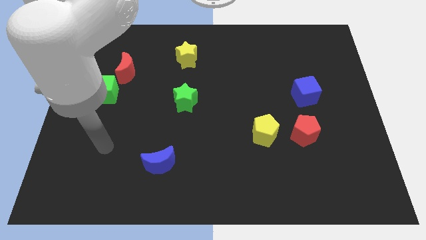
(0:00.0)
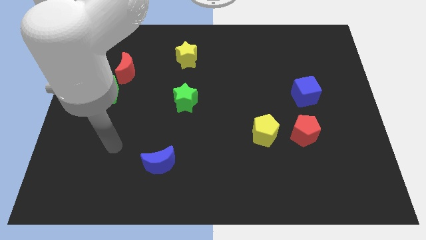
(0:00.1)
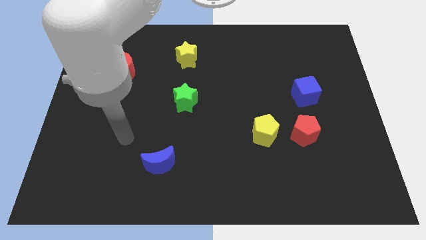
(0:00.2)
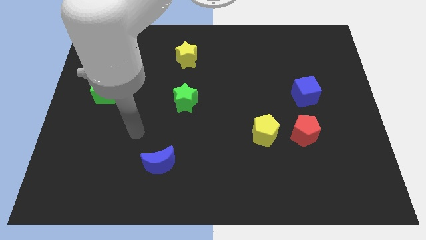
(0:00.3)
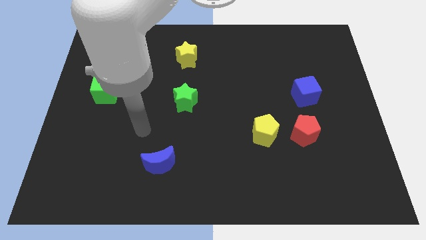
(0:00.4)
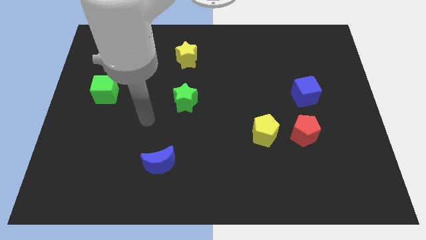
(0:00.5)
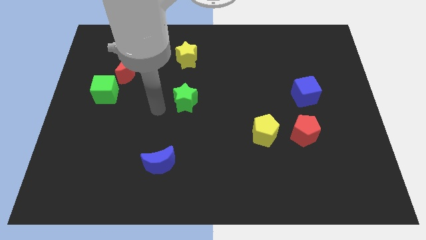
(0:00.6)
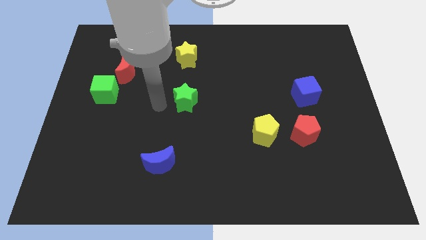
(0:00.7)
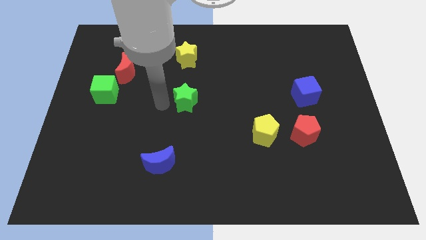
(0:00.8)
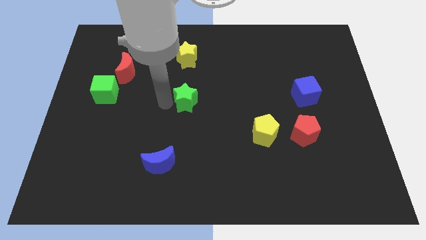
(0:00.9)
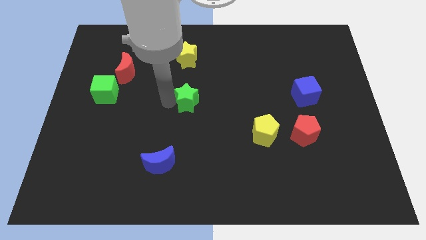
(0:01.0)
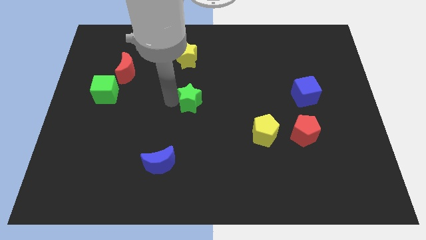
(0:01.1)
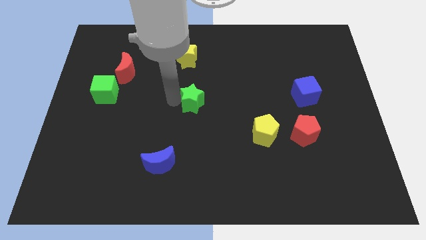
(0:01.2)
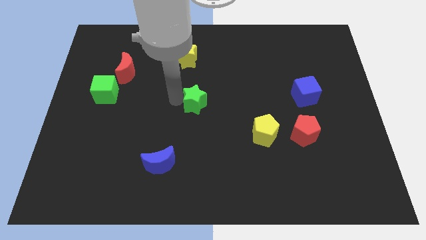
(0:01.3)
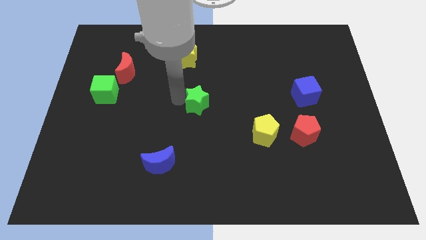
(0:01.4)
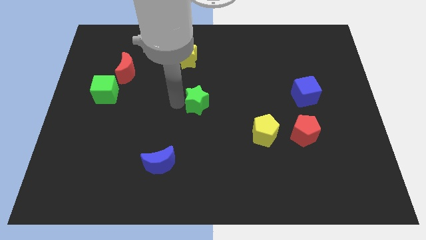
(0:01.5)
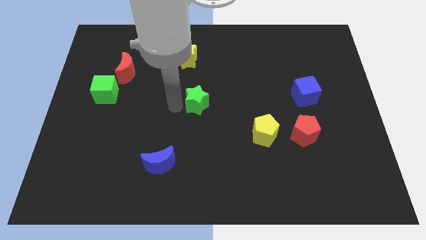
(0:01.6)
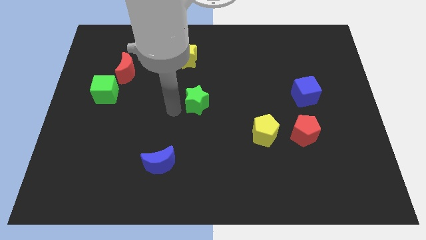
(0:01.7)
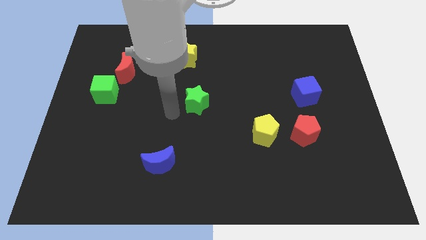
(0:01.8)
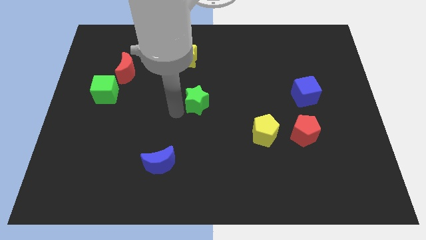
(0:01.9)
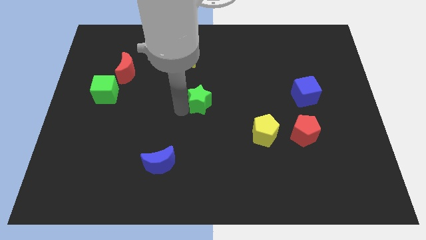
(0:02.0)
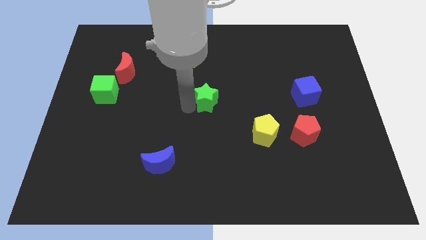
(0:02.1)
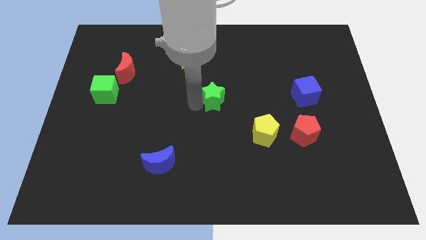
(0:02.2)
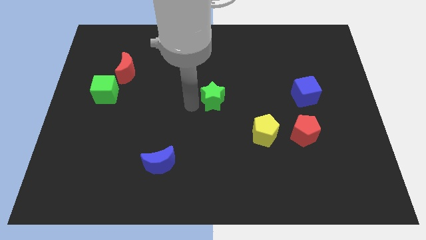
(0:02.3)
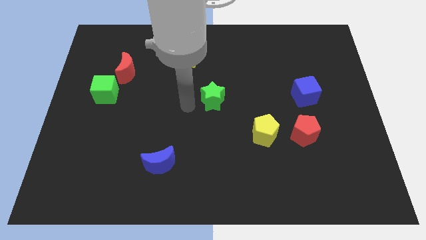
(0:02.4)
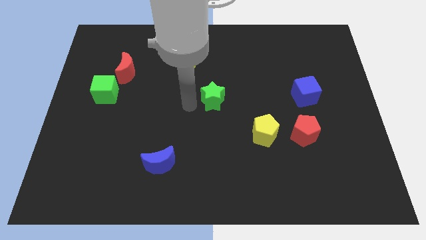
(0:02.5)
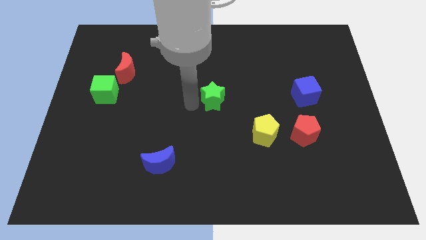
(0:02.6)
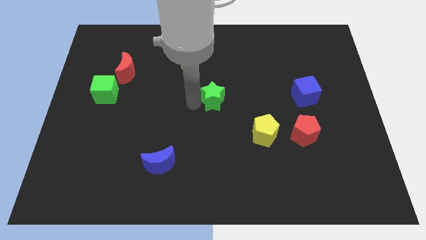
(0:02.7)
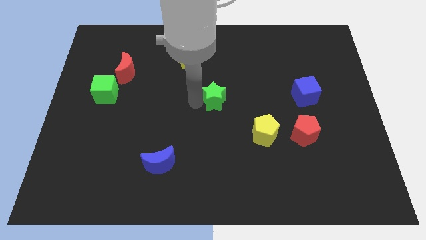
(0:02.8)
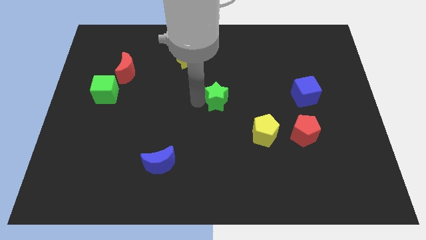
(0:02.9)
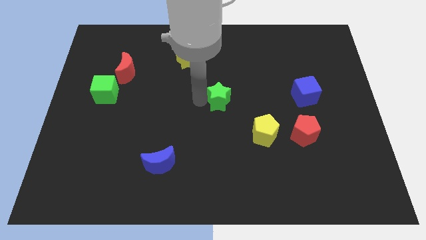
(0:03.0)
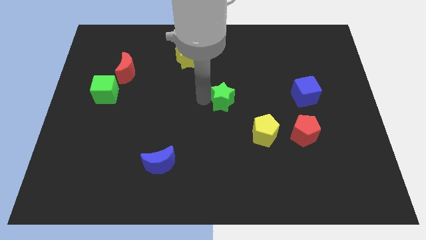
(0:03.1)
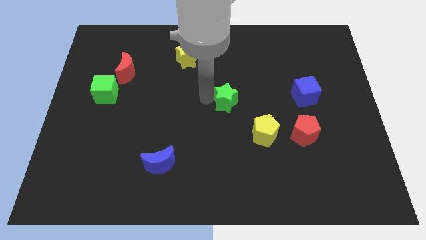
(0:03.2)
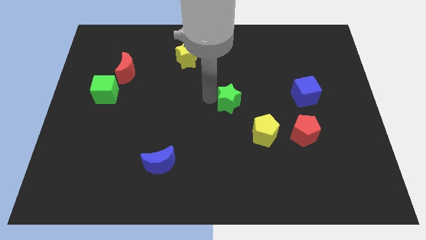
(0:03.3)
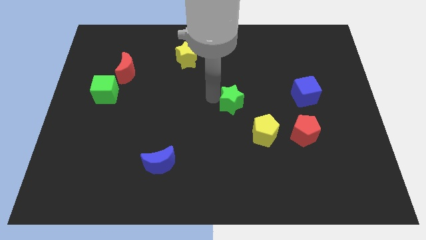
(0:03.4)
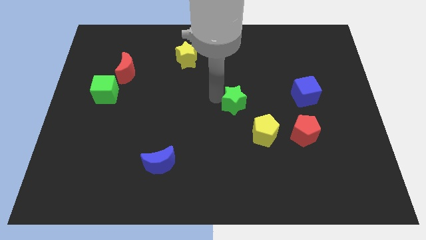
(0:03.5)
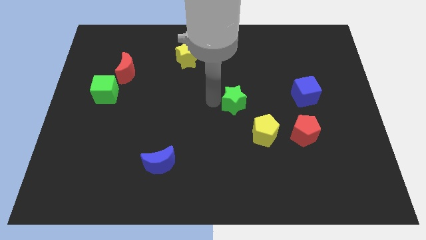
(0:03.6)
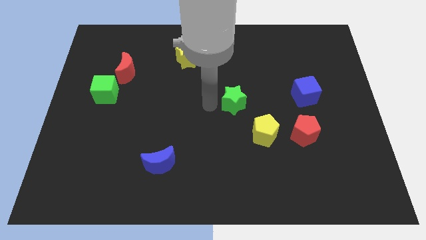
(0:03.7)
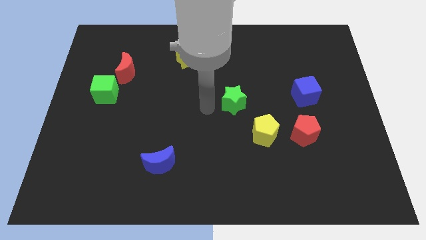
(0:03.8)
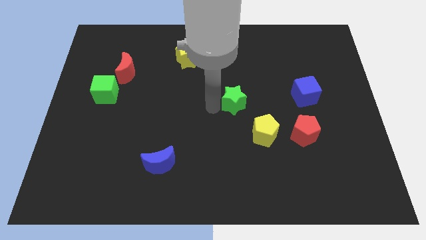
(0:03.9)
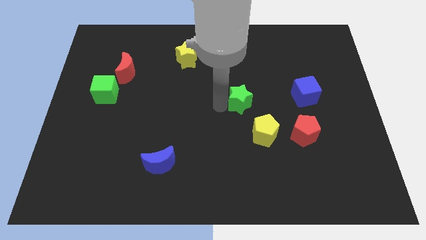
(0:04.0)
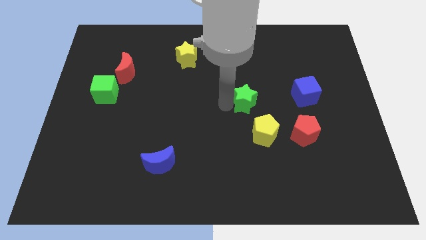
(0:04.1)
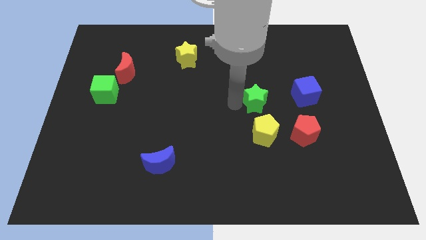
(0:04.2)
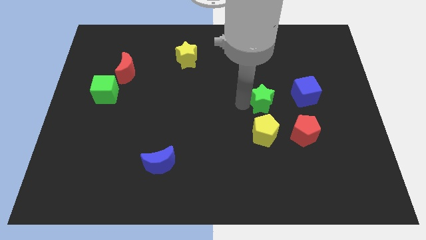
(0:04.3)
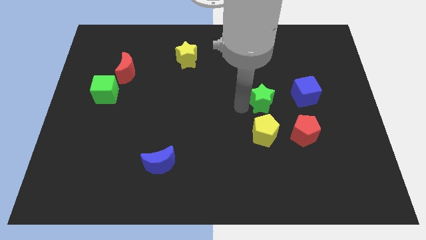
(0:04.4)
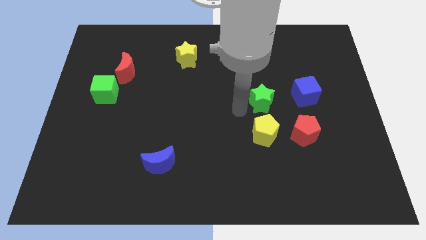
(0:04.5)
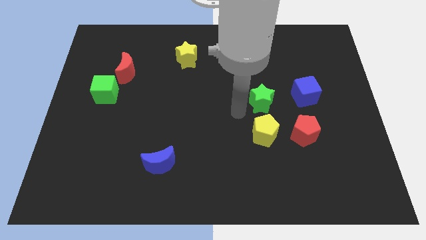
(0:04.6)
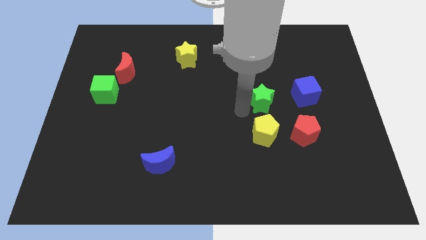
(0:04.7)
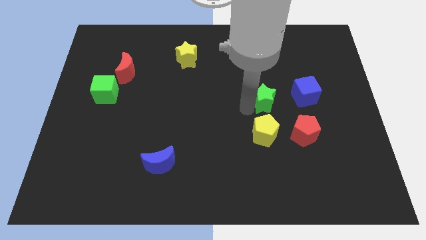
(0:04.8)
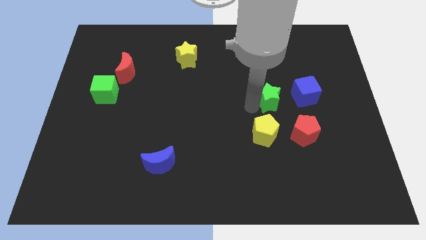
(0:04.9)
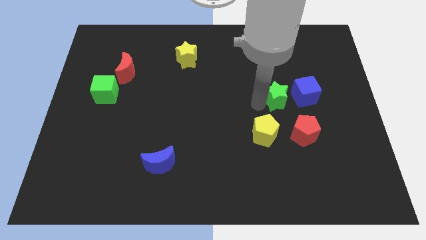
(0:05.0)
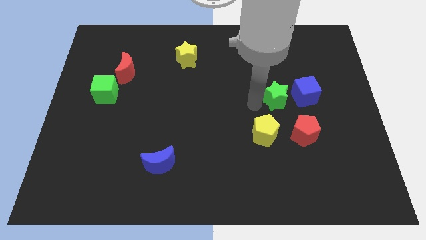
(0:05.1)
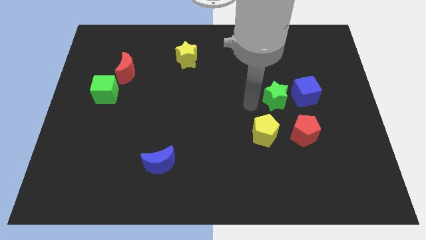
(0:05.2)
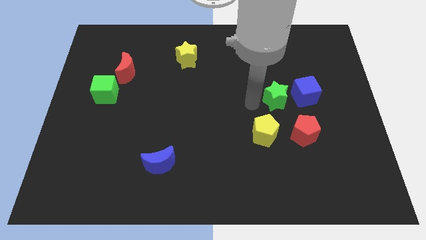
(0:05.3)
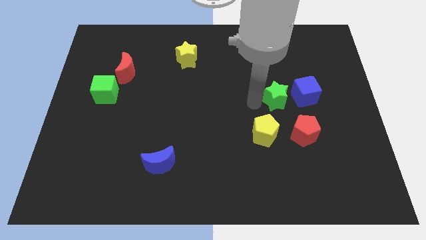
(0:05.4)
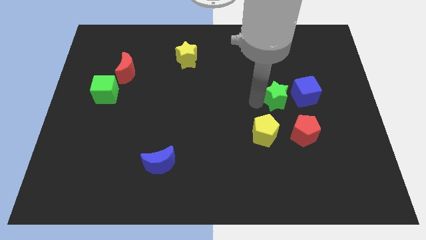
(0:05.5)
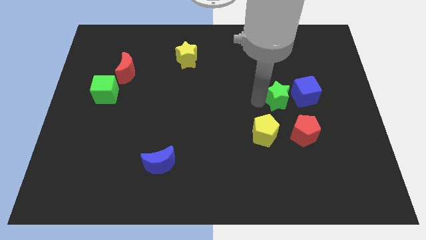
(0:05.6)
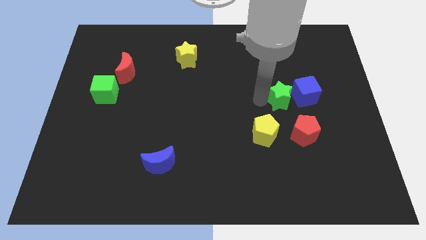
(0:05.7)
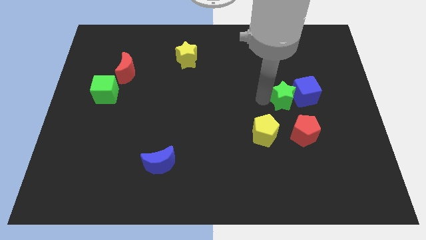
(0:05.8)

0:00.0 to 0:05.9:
push the green star towards the blue cube

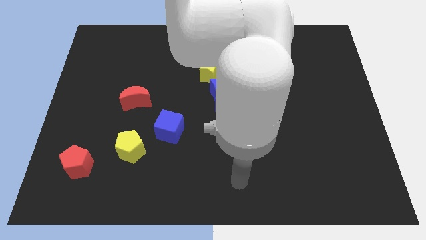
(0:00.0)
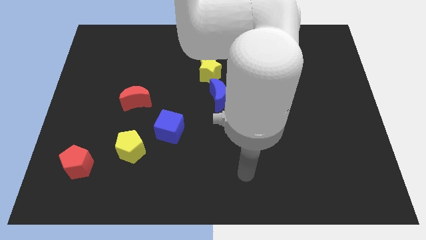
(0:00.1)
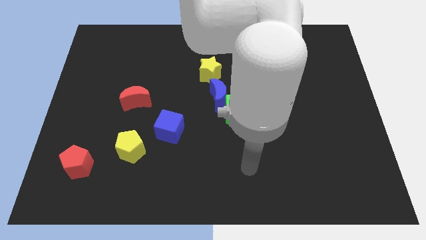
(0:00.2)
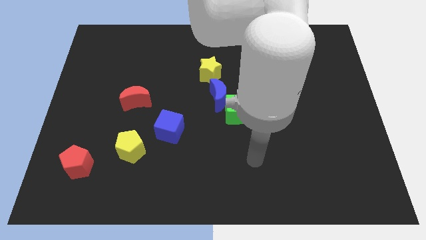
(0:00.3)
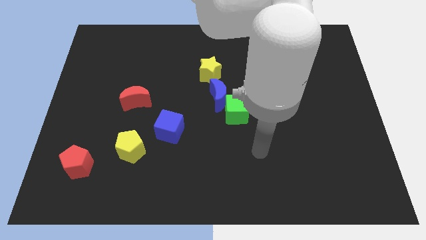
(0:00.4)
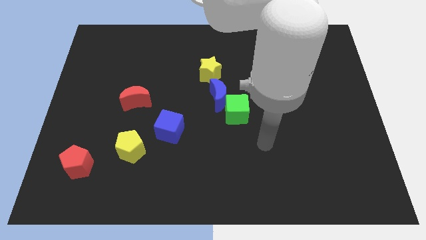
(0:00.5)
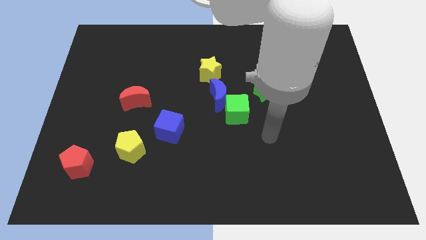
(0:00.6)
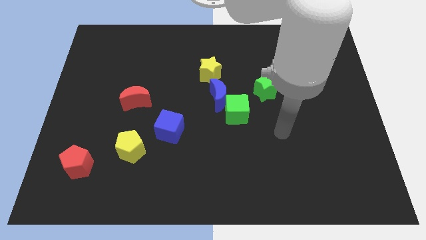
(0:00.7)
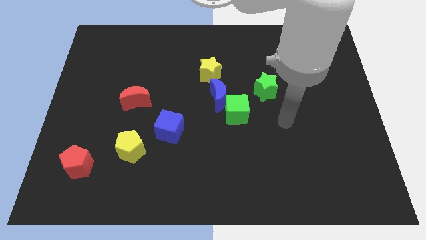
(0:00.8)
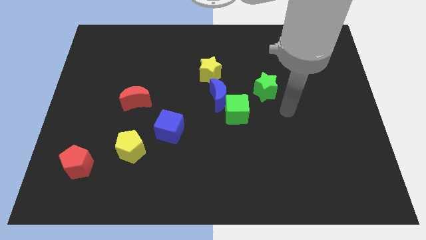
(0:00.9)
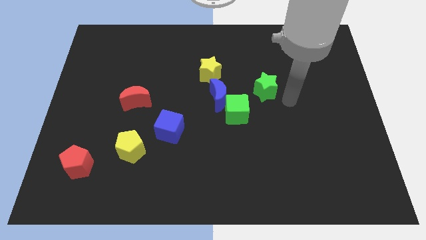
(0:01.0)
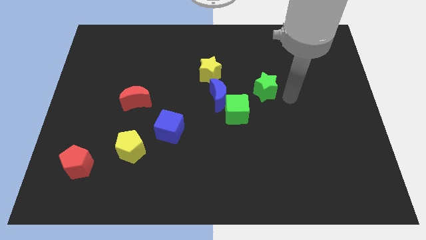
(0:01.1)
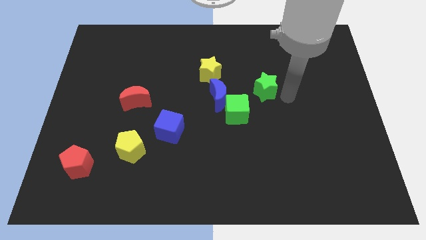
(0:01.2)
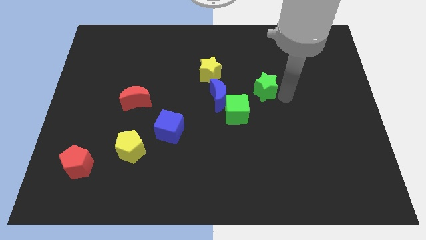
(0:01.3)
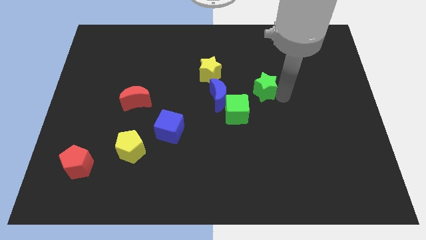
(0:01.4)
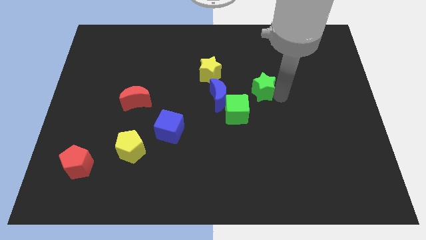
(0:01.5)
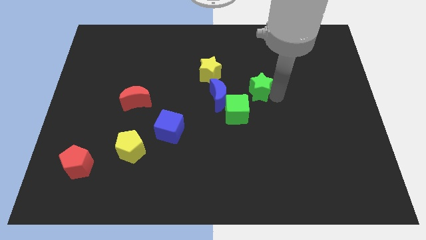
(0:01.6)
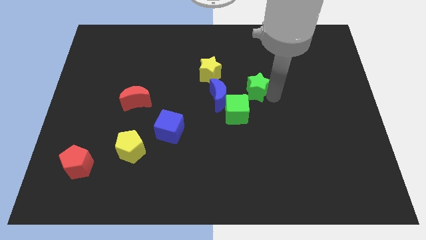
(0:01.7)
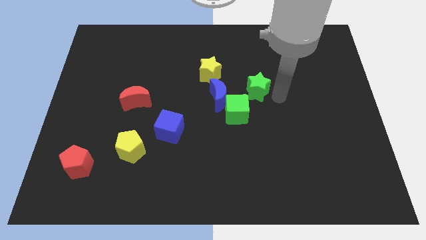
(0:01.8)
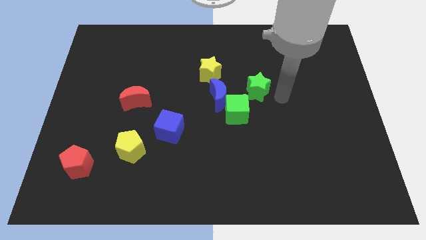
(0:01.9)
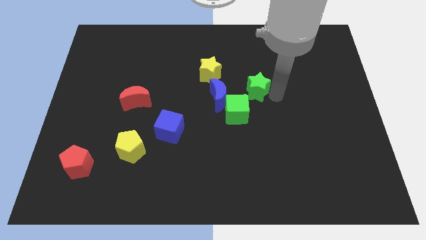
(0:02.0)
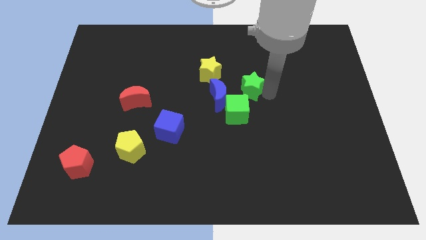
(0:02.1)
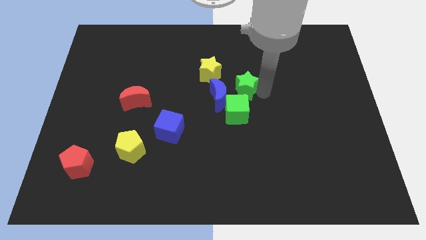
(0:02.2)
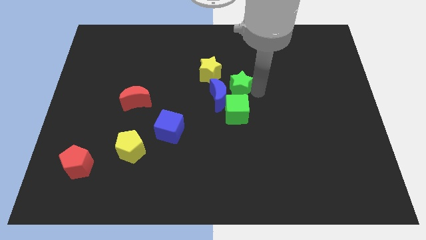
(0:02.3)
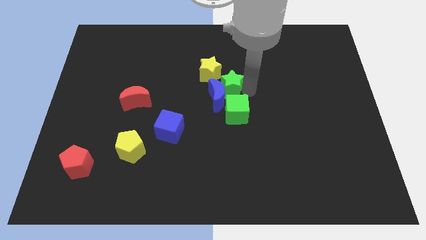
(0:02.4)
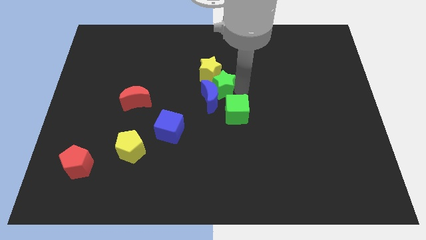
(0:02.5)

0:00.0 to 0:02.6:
put the green star close to the yellow star
